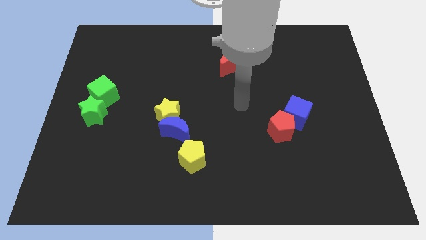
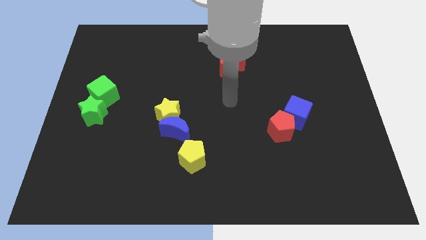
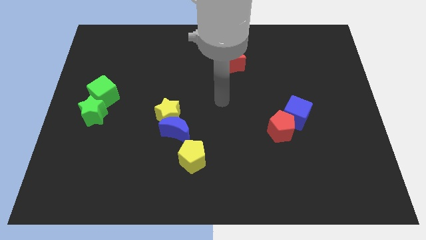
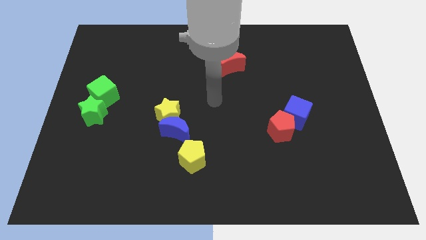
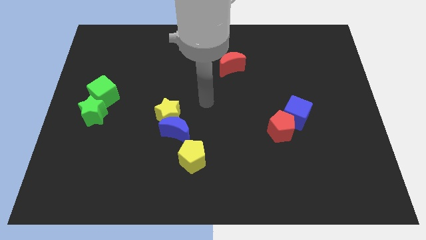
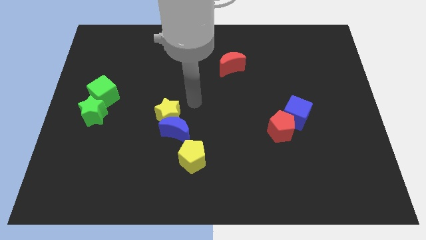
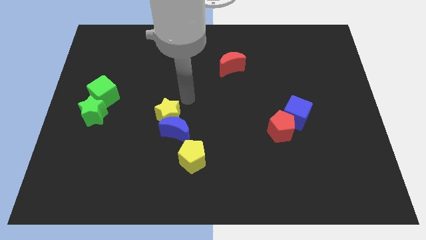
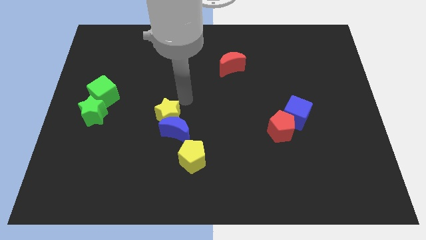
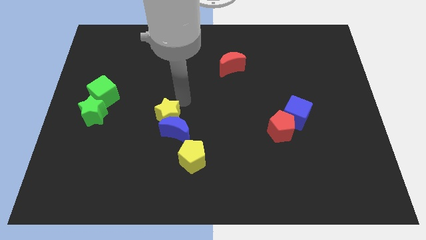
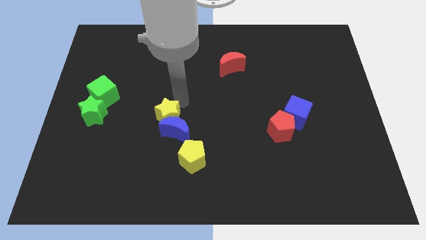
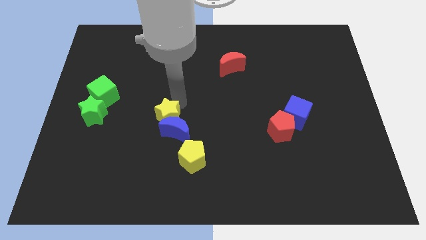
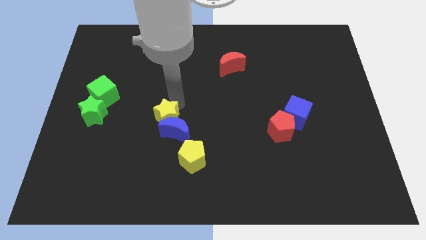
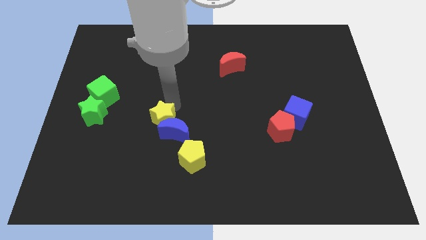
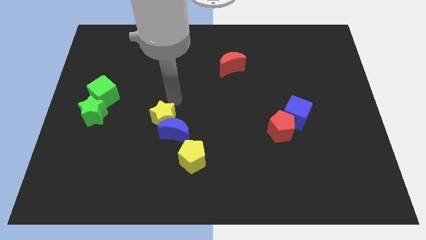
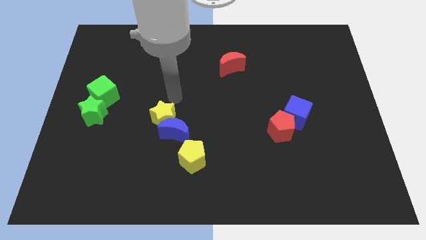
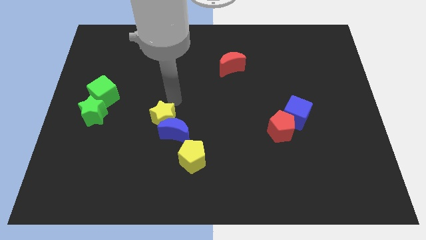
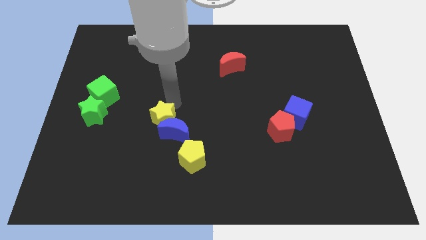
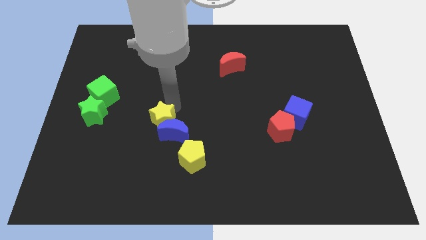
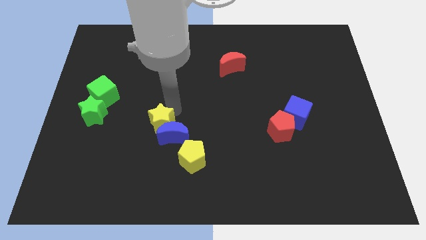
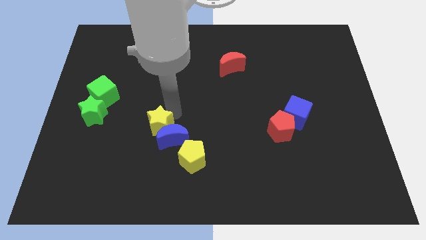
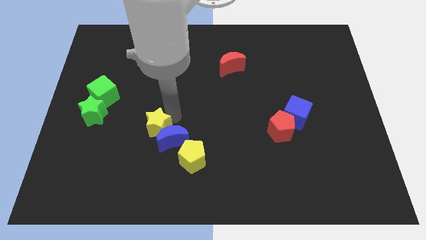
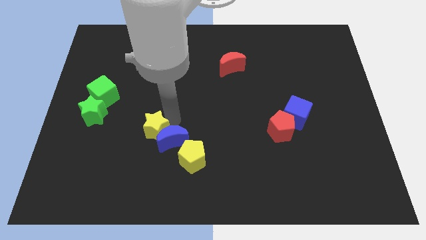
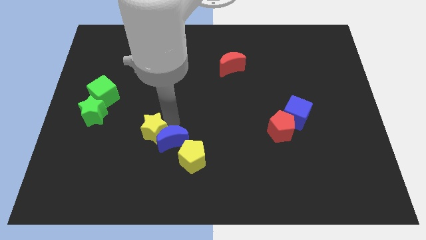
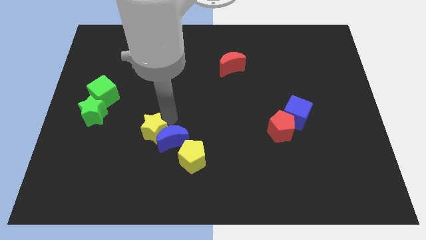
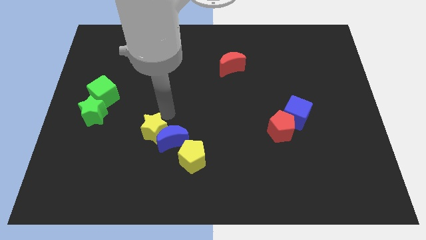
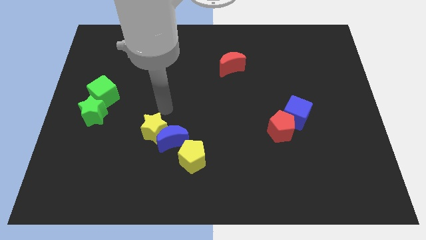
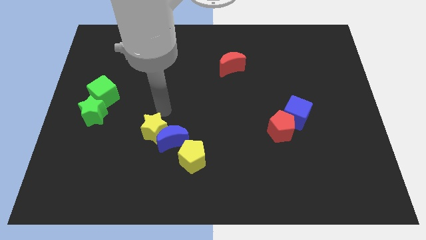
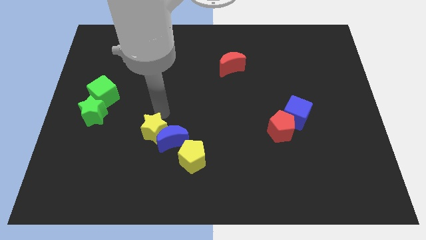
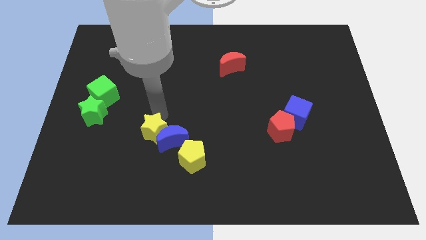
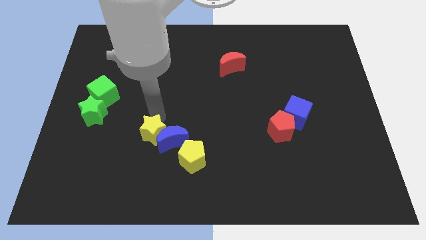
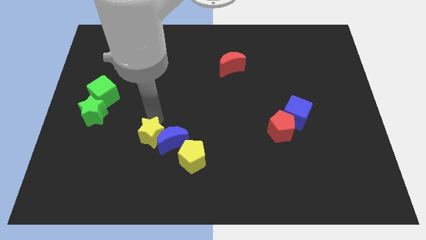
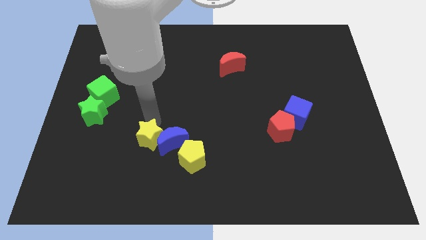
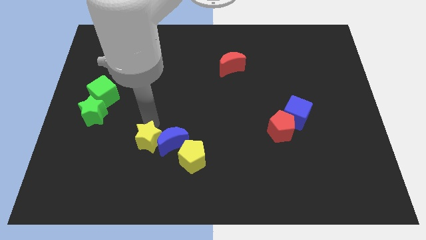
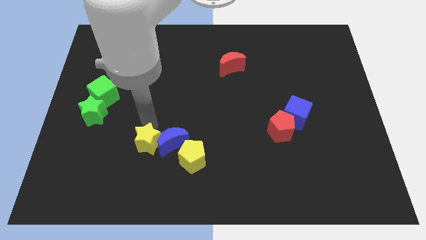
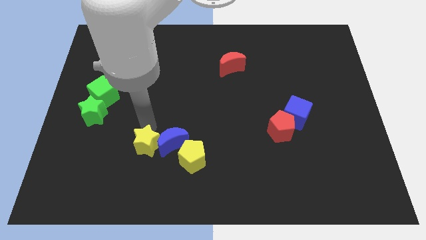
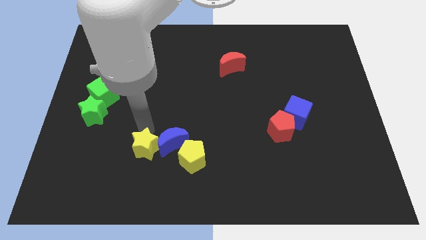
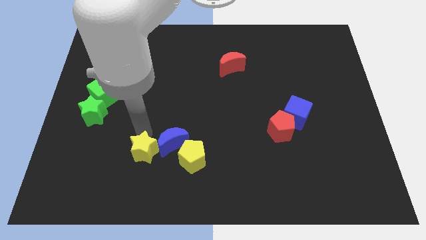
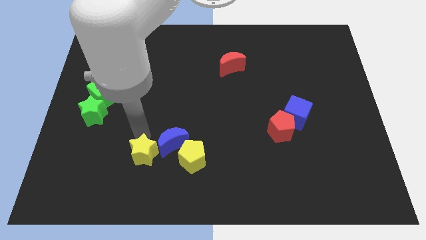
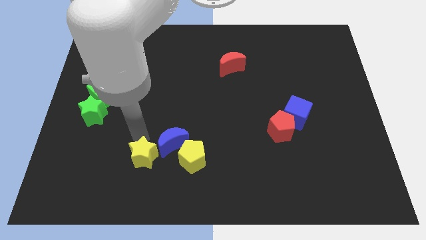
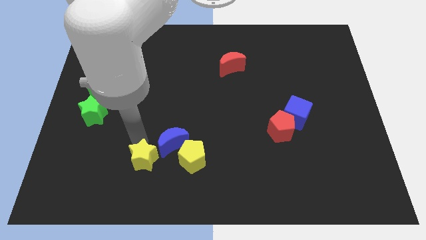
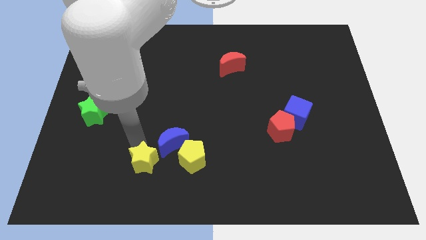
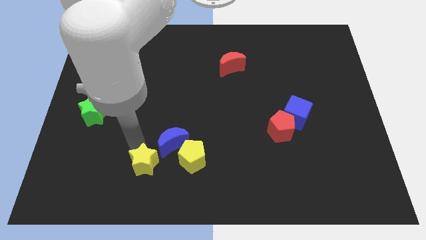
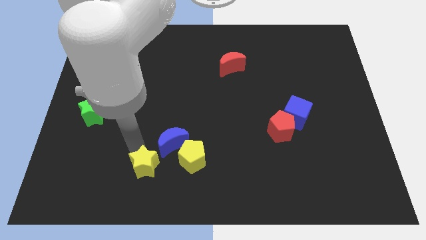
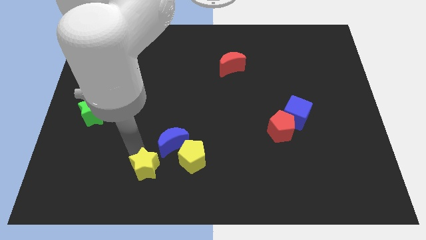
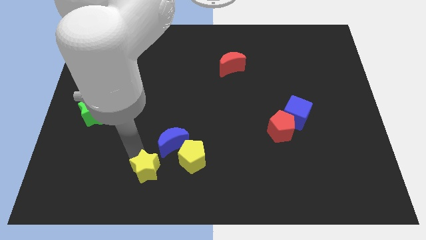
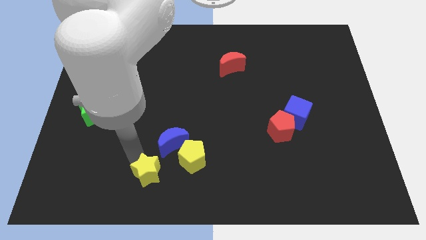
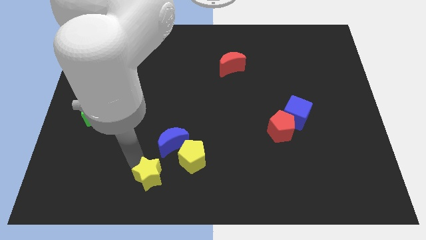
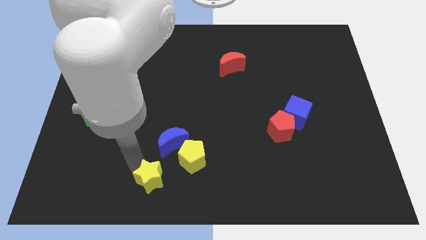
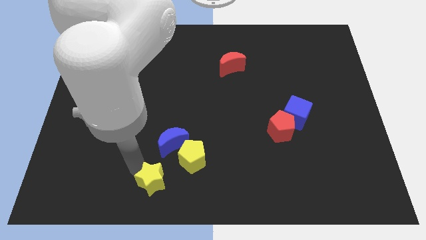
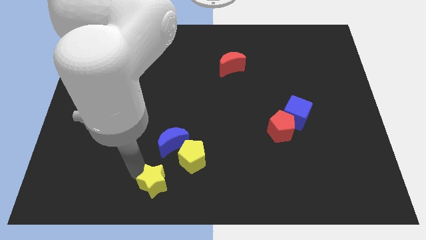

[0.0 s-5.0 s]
move the yellow star to the bottom side

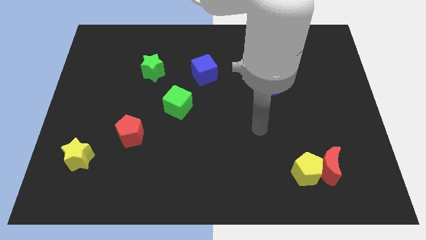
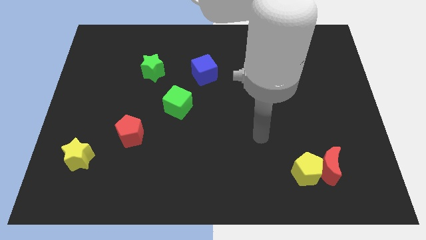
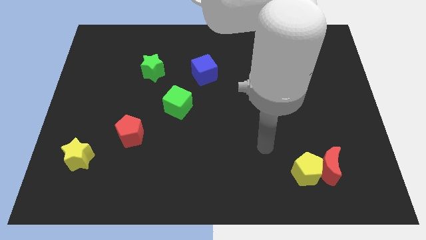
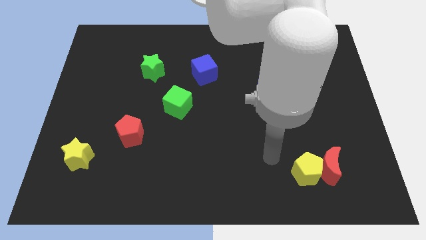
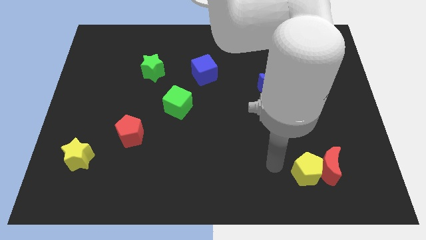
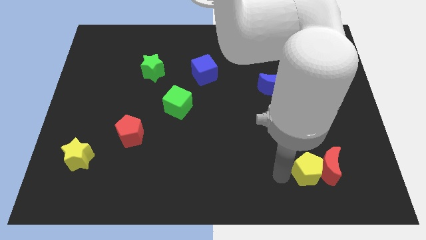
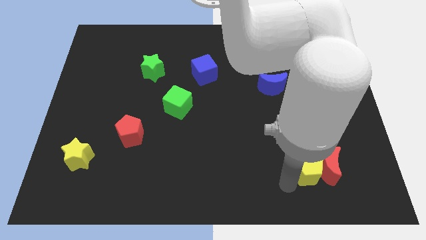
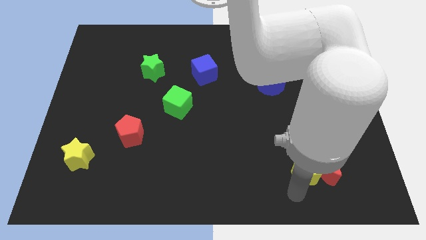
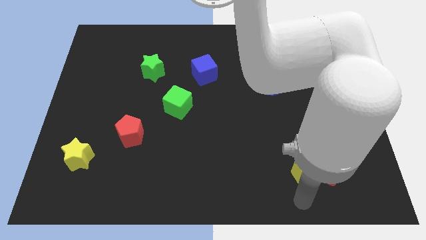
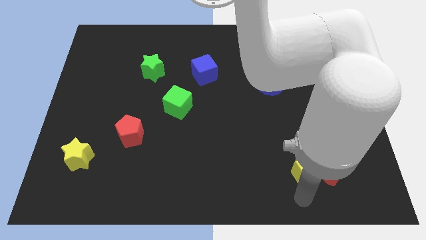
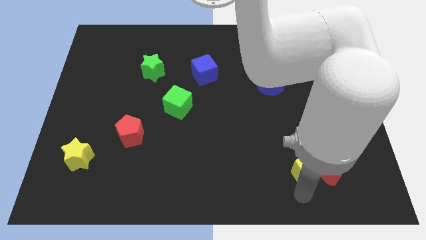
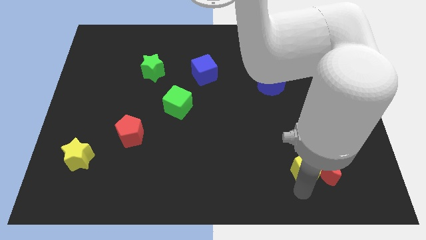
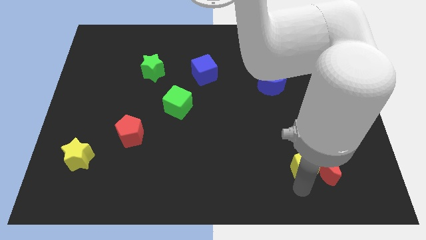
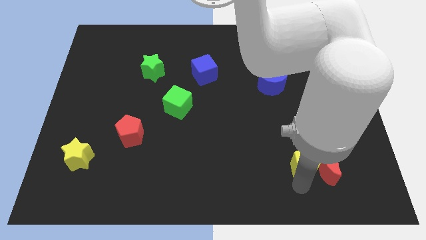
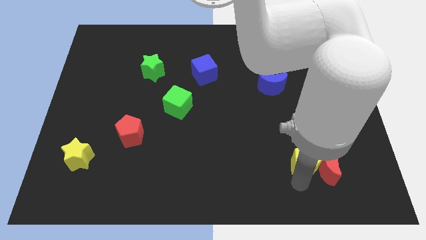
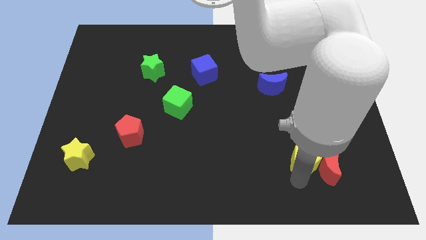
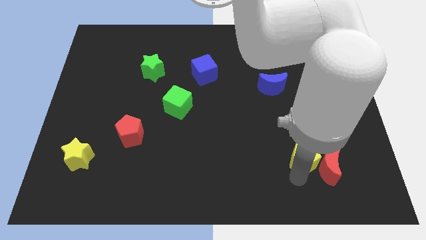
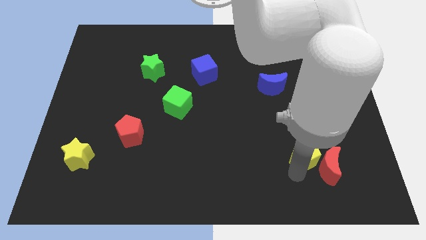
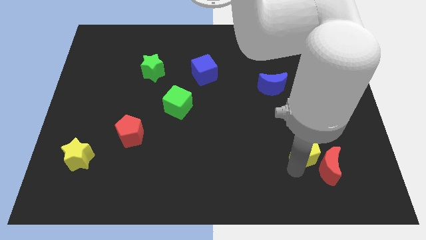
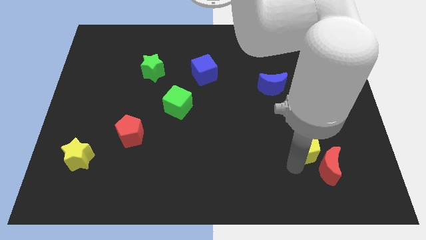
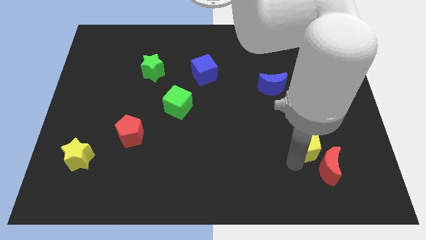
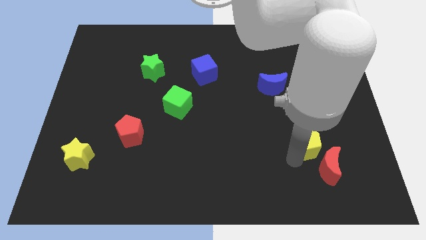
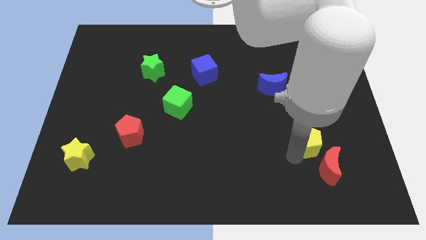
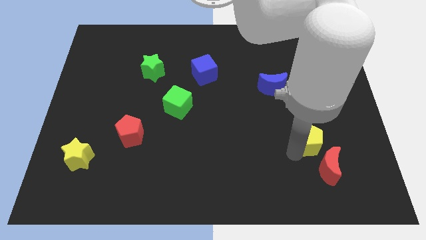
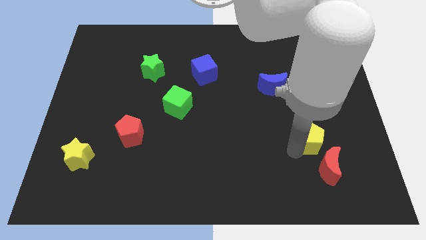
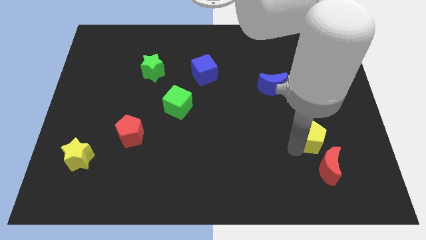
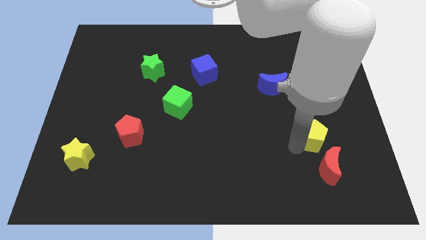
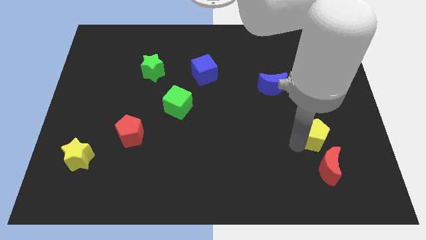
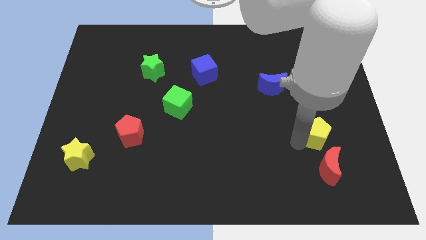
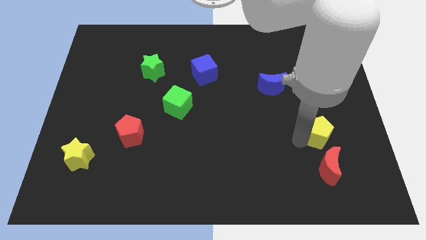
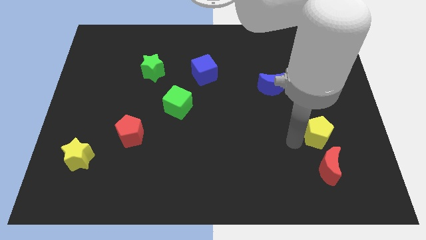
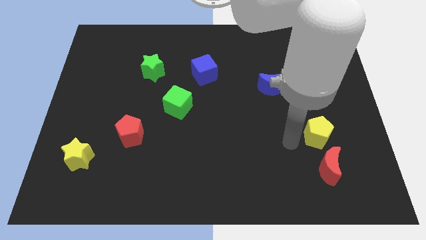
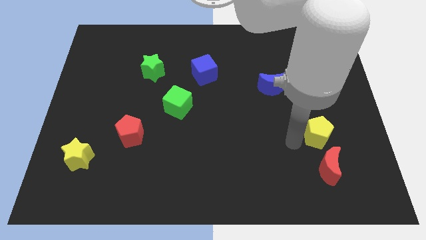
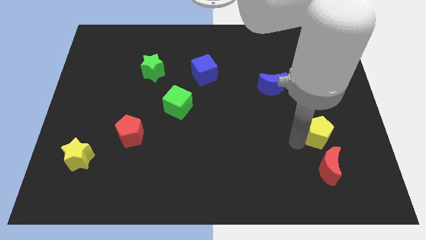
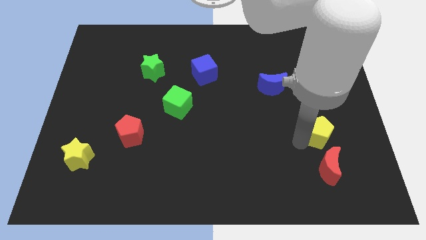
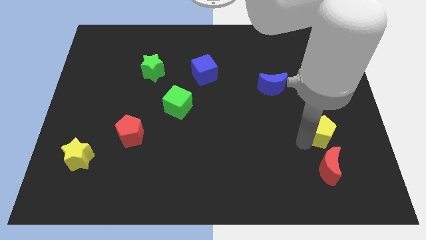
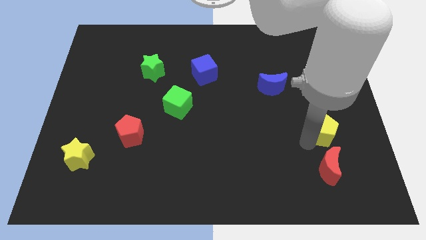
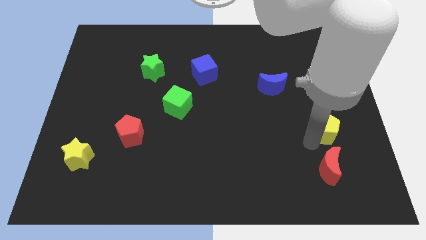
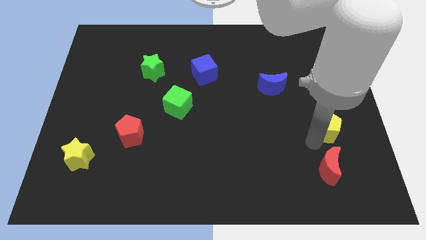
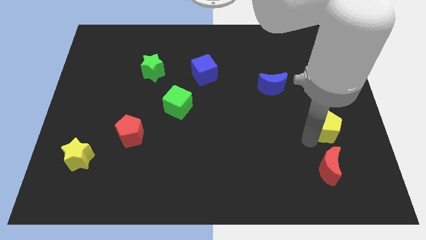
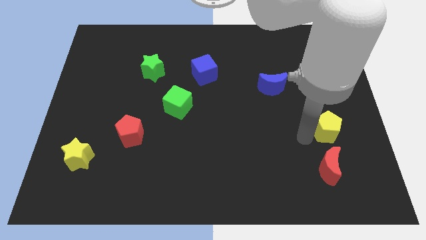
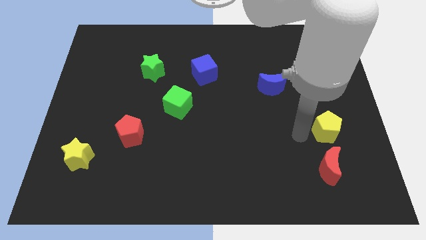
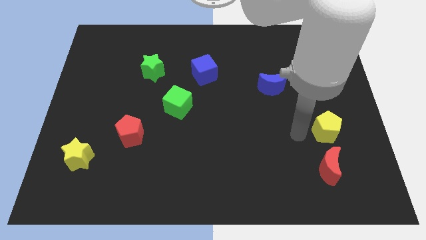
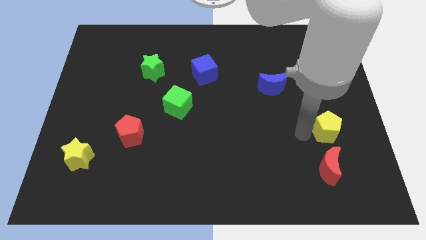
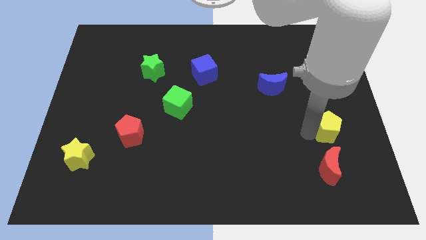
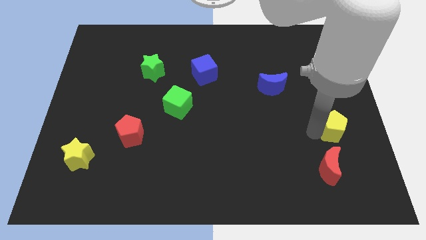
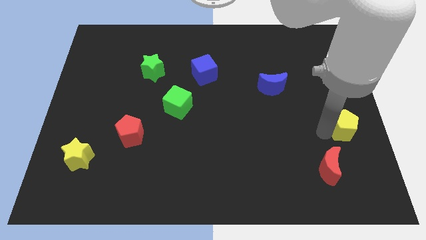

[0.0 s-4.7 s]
move the yellow pentagon to the center right
